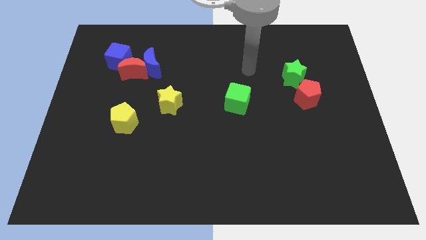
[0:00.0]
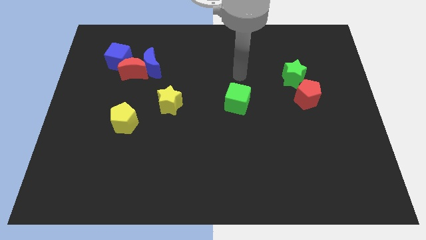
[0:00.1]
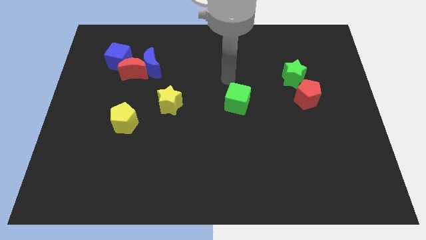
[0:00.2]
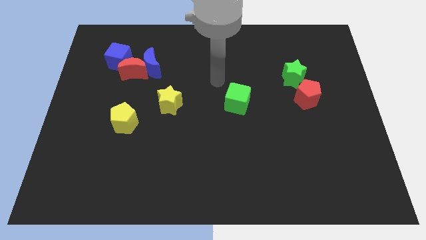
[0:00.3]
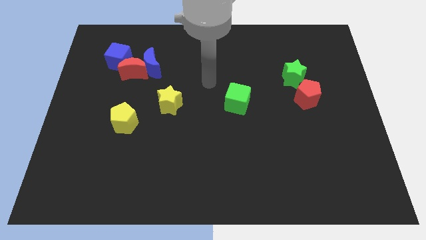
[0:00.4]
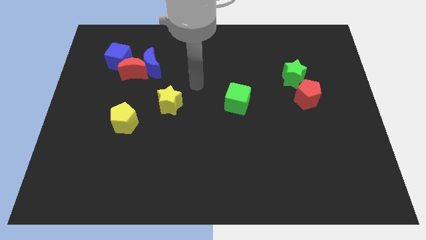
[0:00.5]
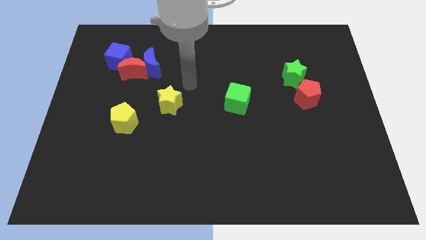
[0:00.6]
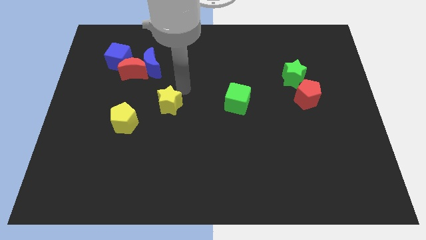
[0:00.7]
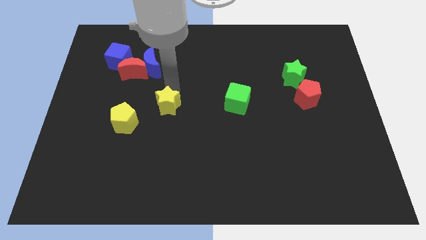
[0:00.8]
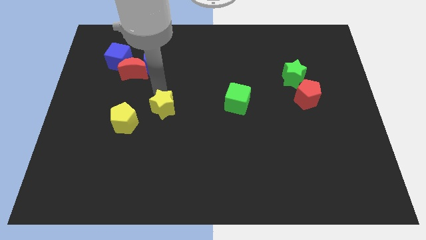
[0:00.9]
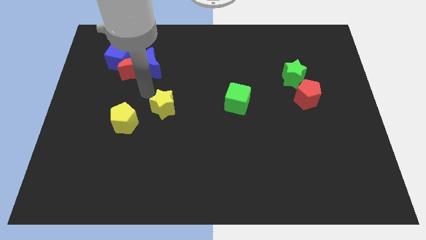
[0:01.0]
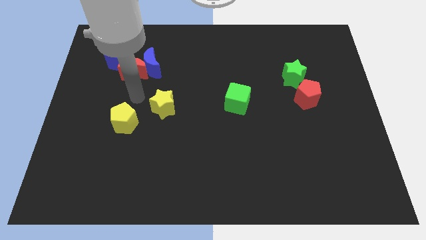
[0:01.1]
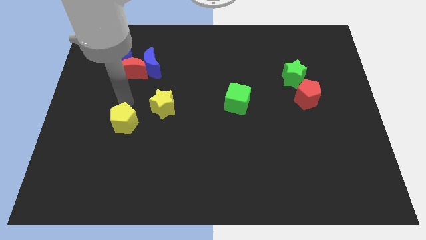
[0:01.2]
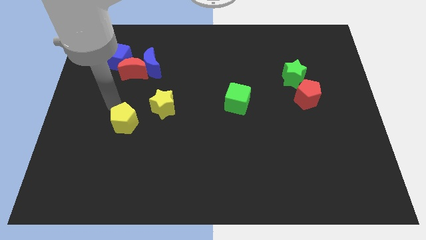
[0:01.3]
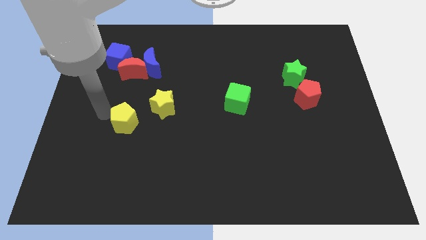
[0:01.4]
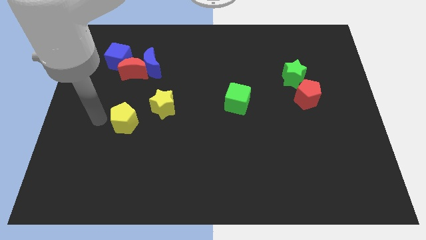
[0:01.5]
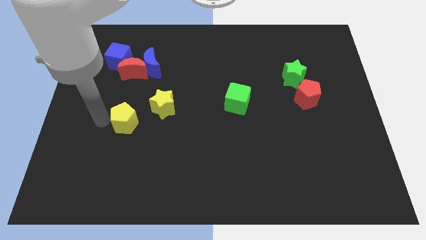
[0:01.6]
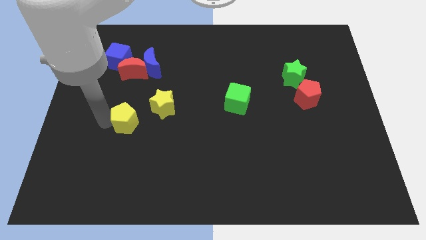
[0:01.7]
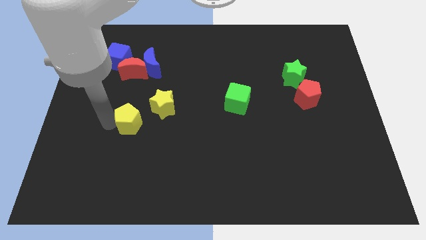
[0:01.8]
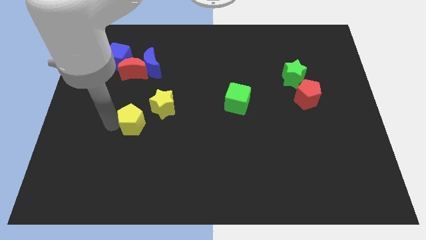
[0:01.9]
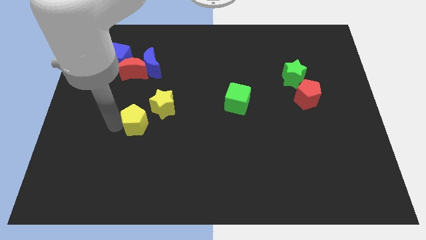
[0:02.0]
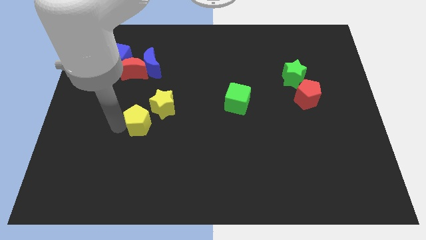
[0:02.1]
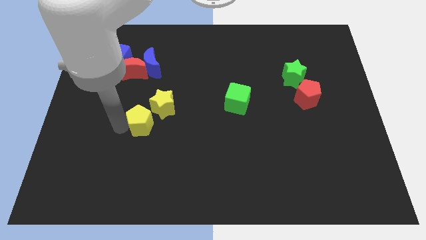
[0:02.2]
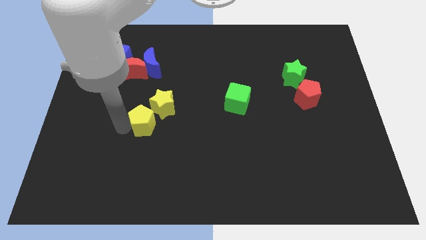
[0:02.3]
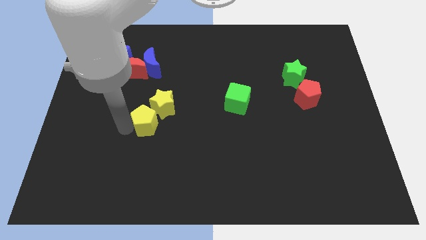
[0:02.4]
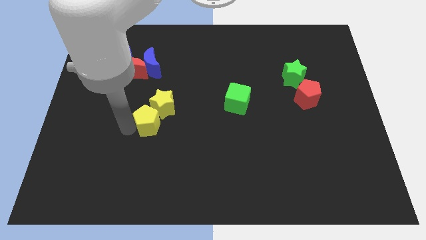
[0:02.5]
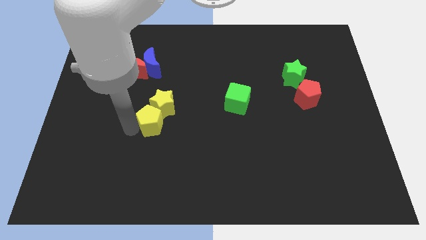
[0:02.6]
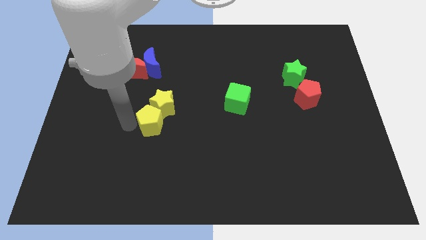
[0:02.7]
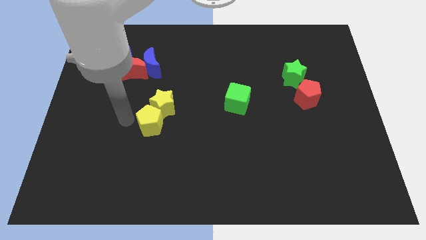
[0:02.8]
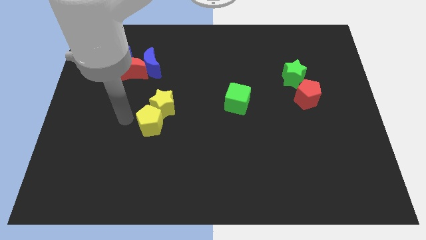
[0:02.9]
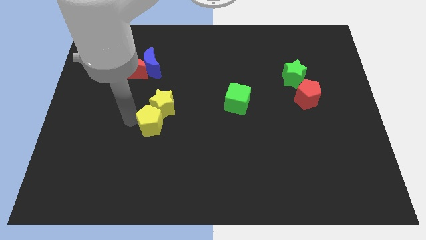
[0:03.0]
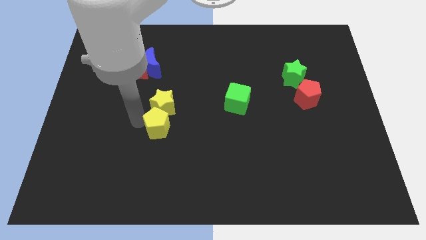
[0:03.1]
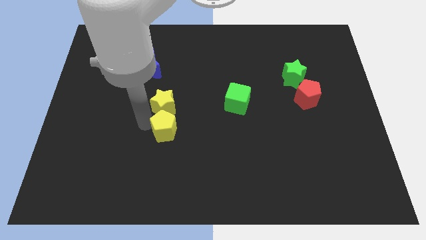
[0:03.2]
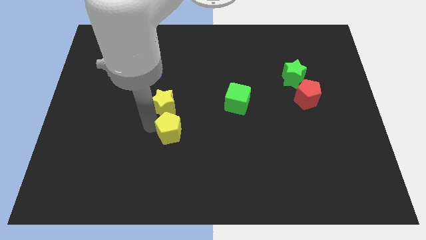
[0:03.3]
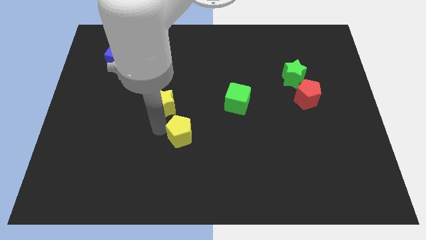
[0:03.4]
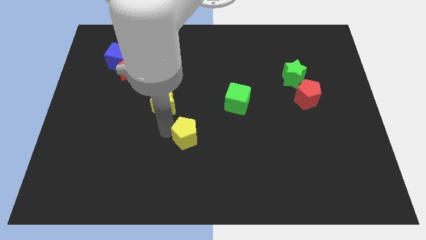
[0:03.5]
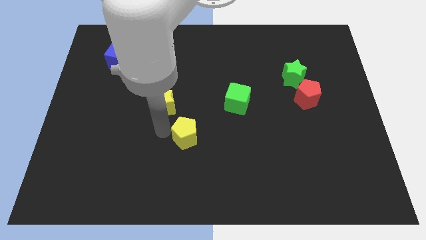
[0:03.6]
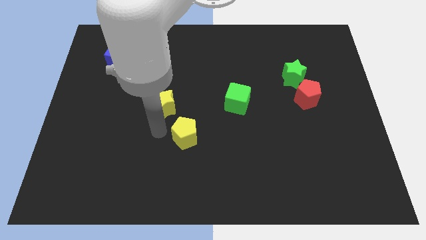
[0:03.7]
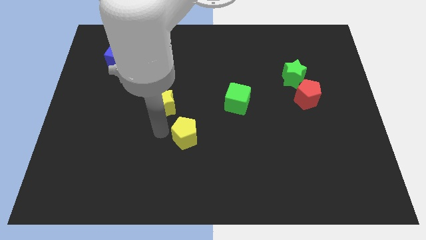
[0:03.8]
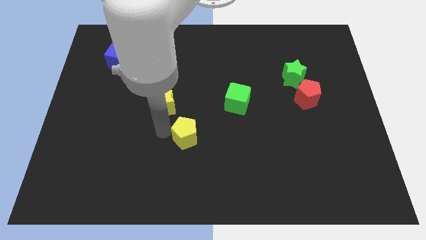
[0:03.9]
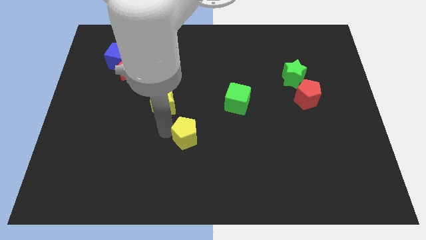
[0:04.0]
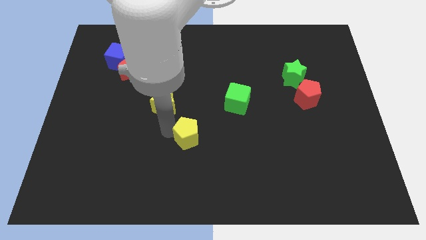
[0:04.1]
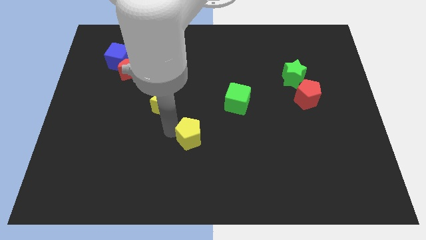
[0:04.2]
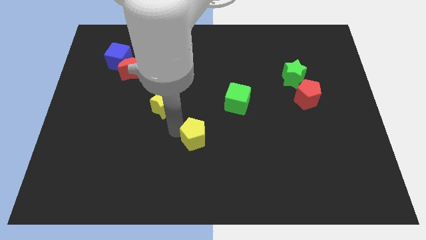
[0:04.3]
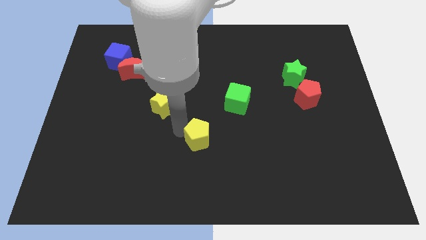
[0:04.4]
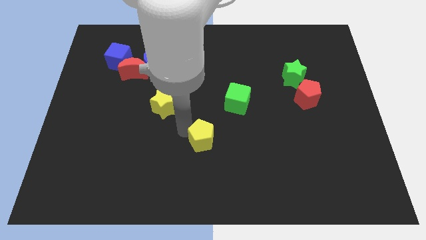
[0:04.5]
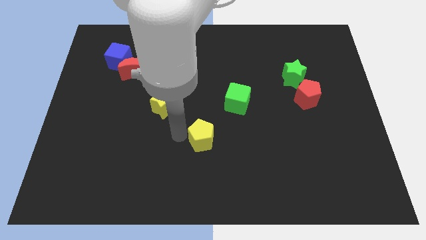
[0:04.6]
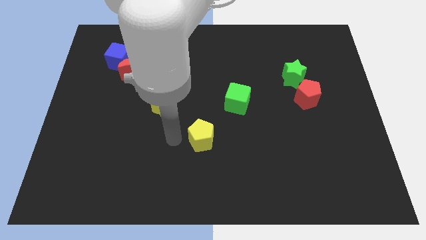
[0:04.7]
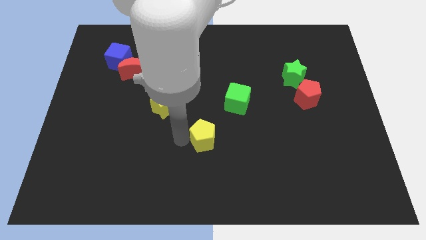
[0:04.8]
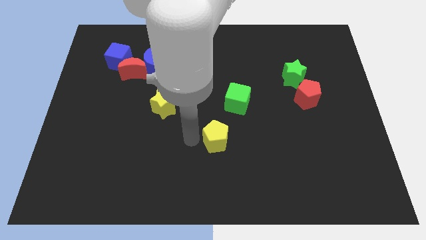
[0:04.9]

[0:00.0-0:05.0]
move the yellow pentagon to the bottom of the green cube

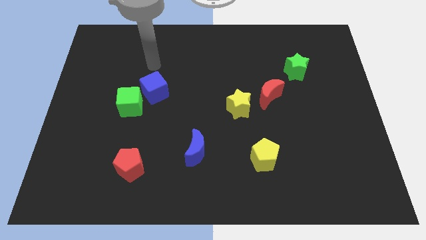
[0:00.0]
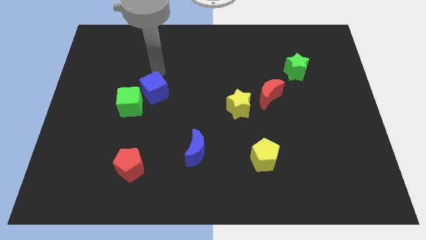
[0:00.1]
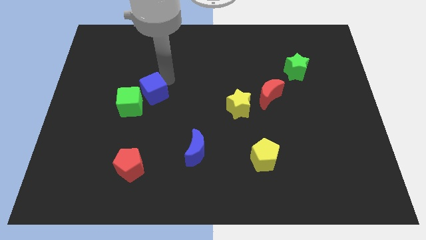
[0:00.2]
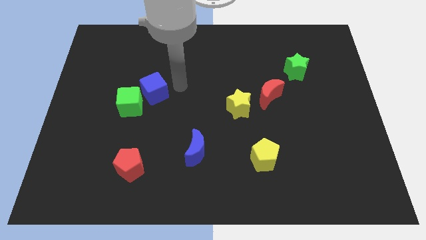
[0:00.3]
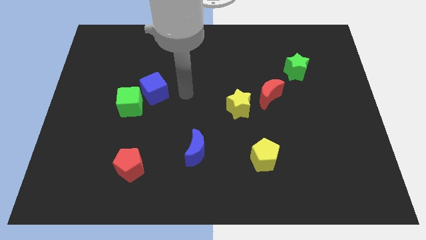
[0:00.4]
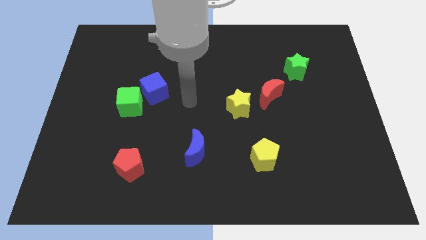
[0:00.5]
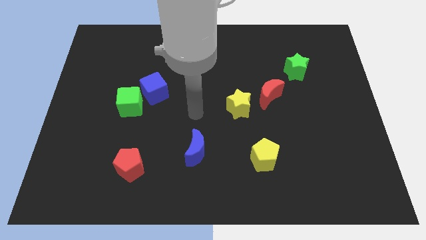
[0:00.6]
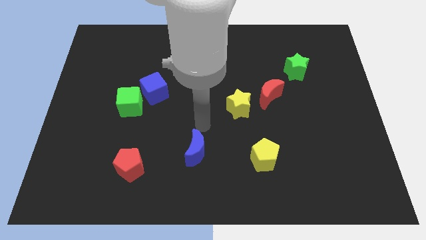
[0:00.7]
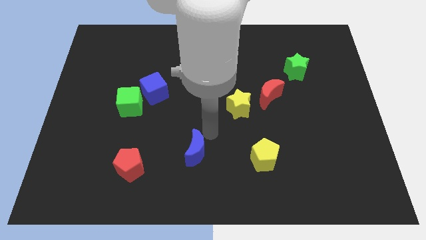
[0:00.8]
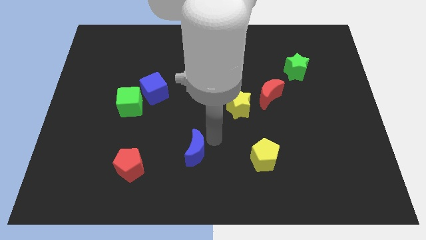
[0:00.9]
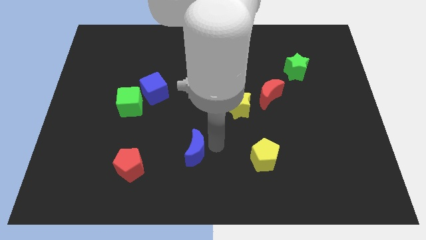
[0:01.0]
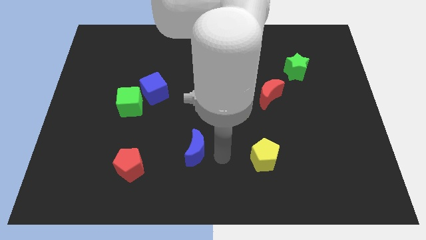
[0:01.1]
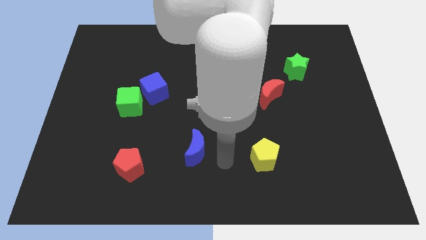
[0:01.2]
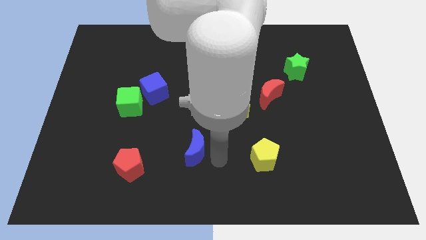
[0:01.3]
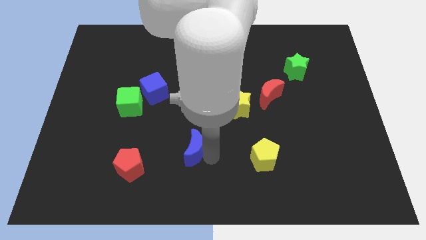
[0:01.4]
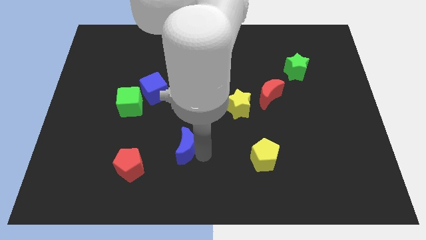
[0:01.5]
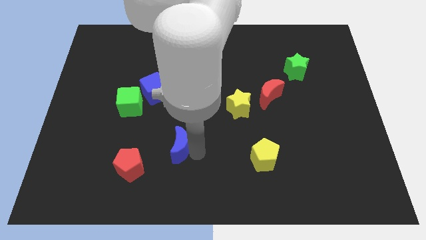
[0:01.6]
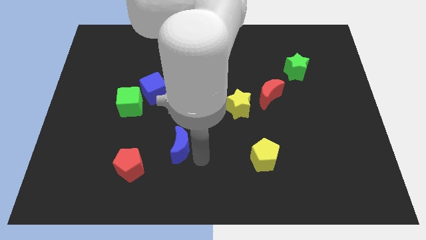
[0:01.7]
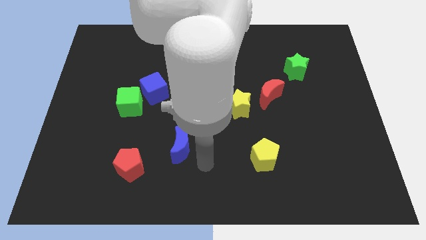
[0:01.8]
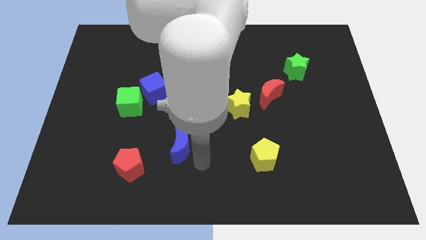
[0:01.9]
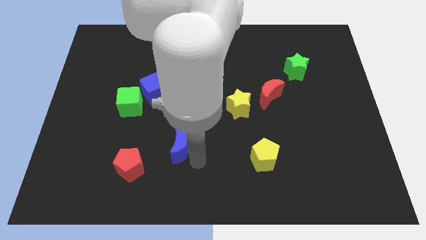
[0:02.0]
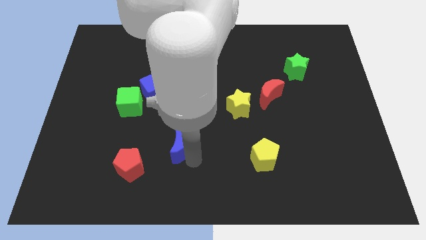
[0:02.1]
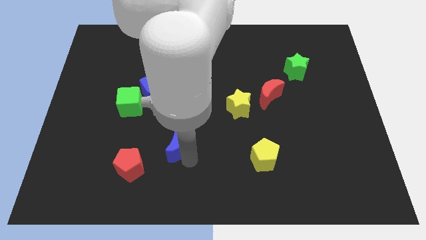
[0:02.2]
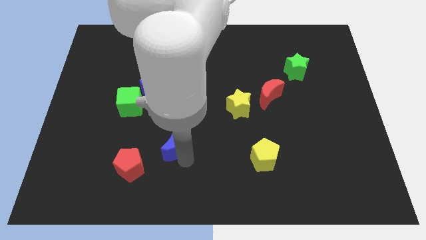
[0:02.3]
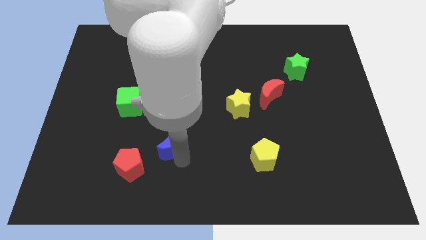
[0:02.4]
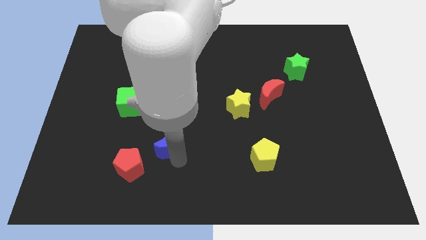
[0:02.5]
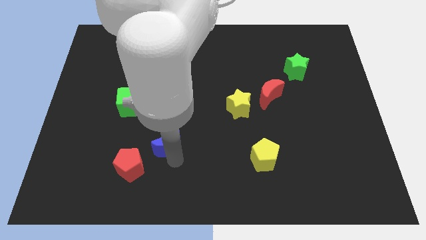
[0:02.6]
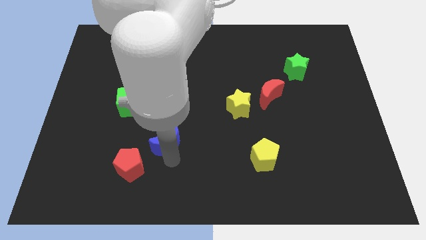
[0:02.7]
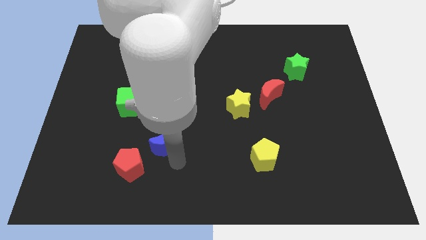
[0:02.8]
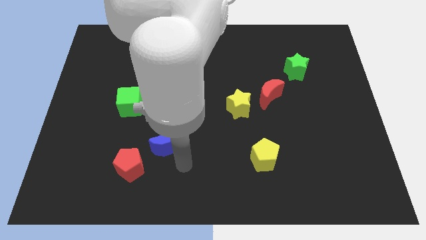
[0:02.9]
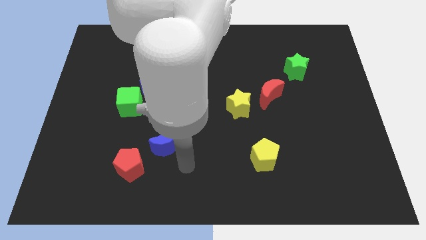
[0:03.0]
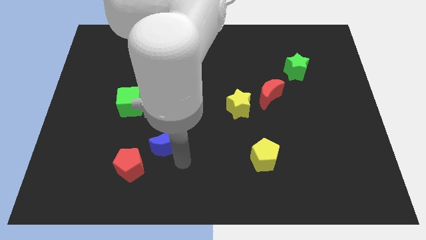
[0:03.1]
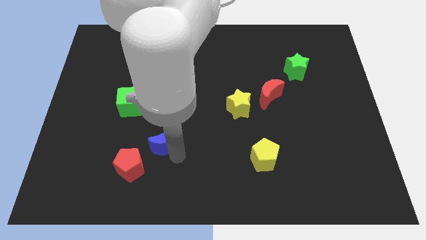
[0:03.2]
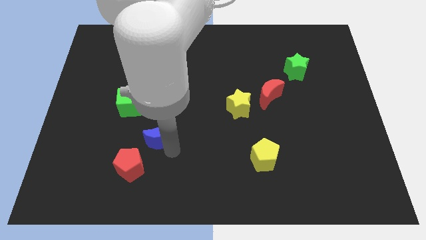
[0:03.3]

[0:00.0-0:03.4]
put the blue moon to the bottom of the blue cube
